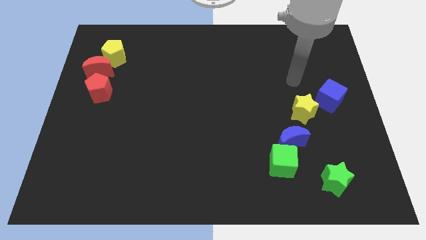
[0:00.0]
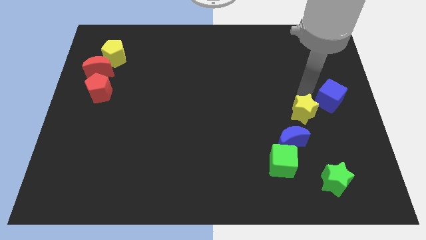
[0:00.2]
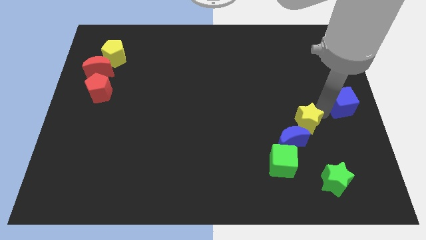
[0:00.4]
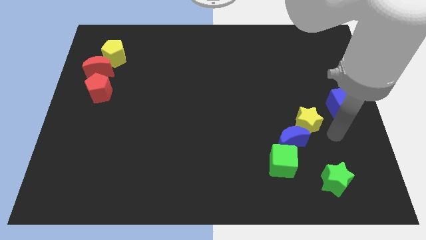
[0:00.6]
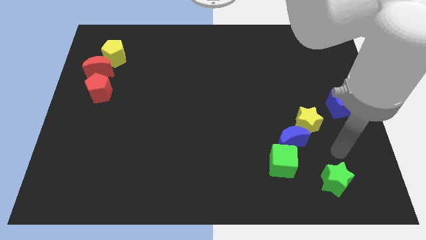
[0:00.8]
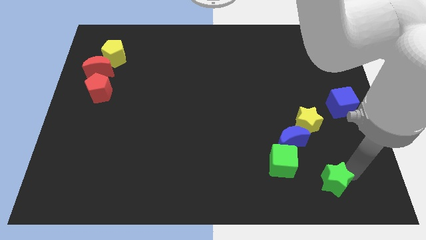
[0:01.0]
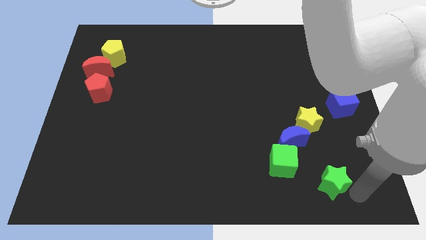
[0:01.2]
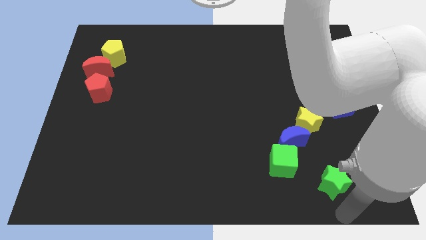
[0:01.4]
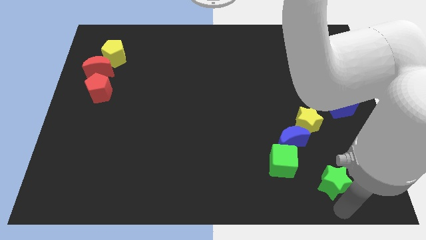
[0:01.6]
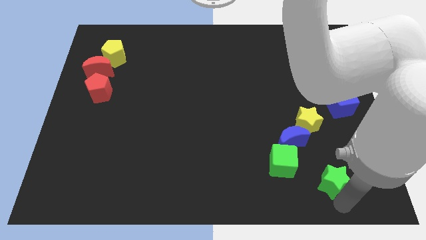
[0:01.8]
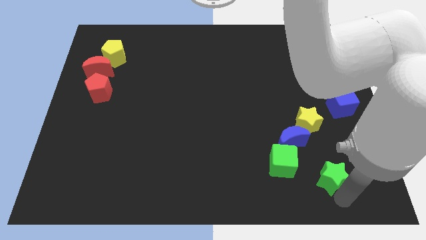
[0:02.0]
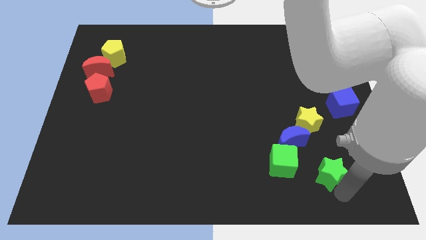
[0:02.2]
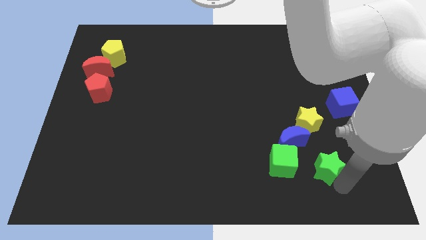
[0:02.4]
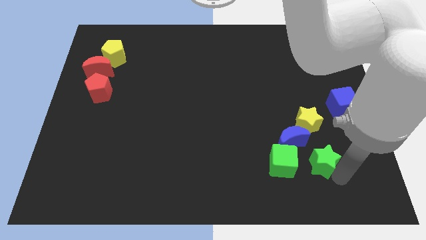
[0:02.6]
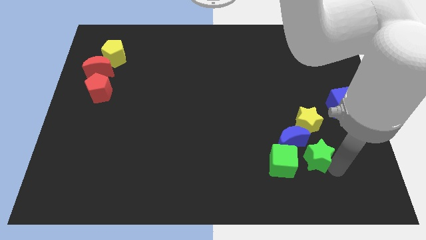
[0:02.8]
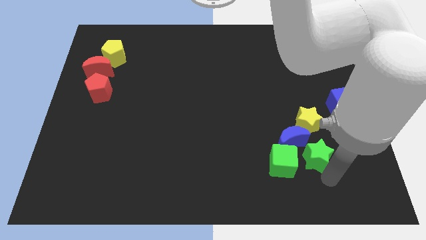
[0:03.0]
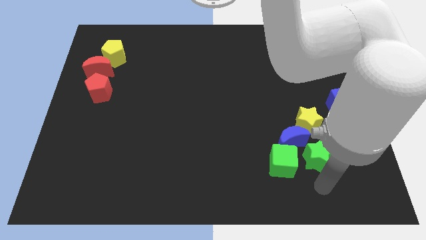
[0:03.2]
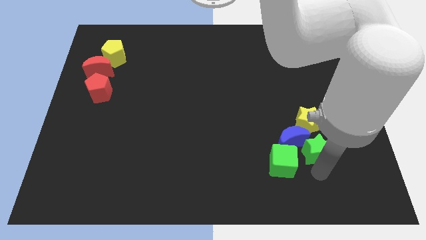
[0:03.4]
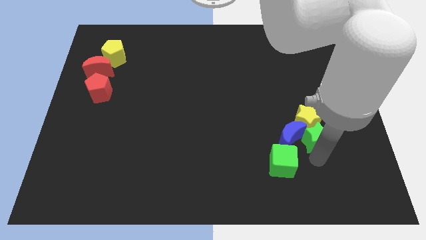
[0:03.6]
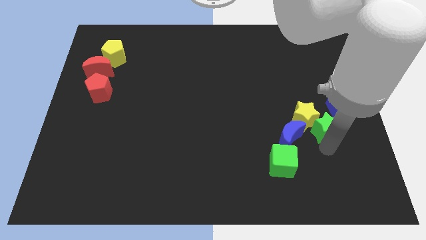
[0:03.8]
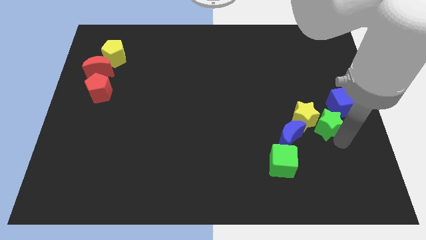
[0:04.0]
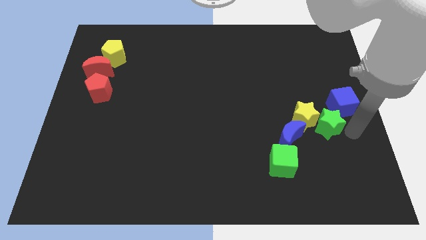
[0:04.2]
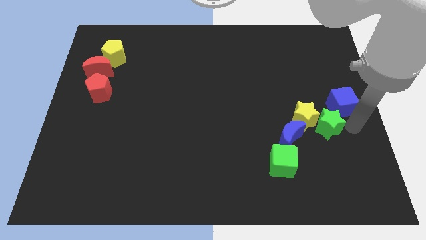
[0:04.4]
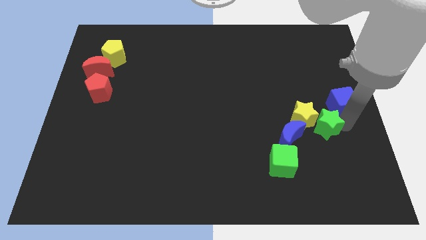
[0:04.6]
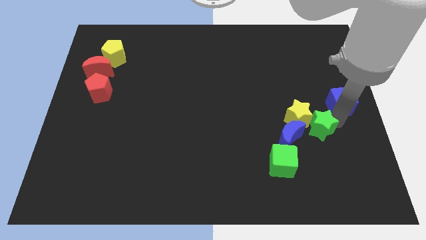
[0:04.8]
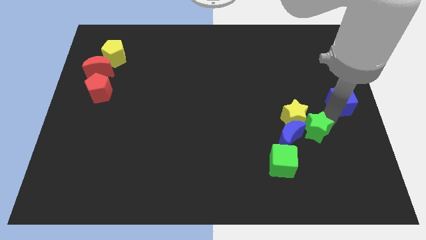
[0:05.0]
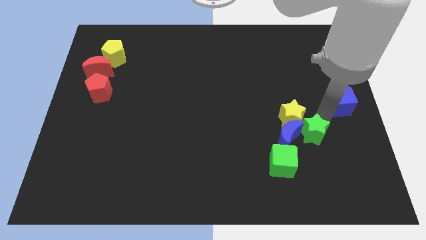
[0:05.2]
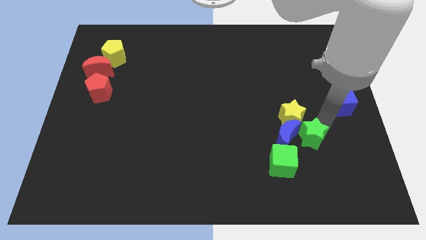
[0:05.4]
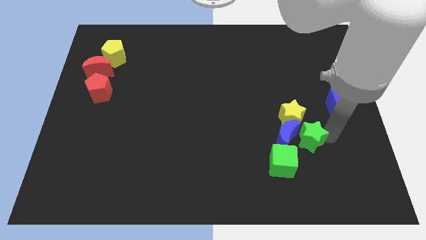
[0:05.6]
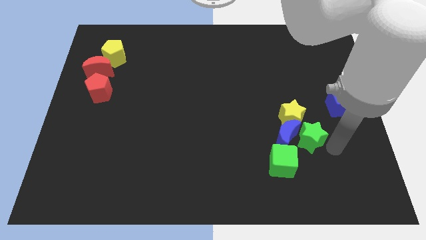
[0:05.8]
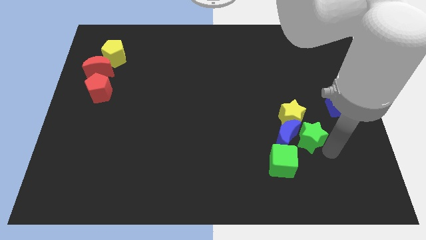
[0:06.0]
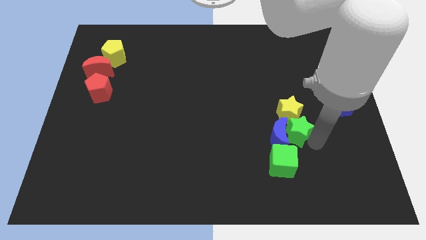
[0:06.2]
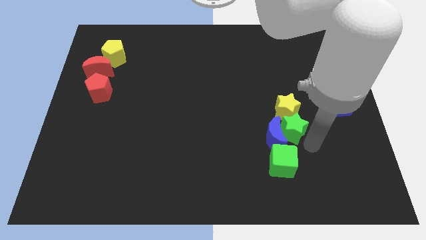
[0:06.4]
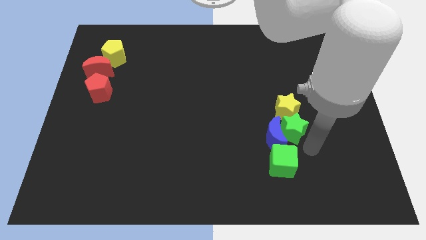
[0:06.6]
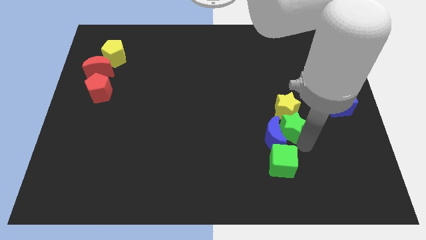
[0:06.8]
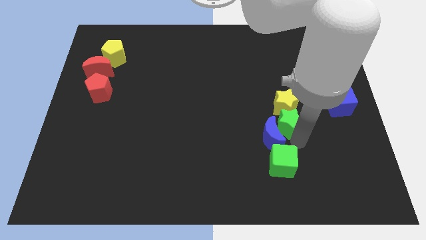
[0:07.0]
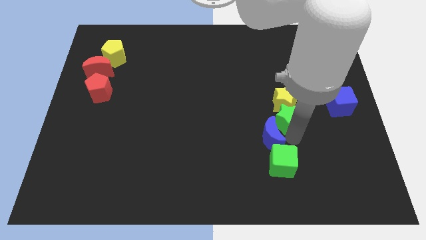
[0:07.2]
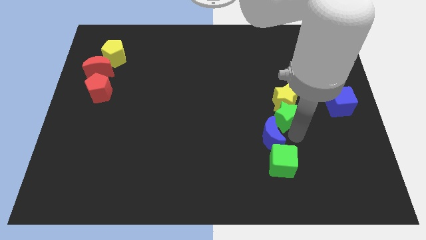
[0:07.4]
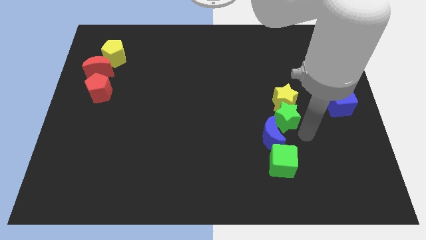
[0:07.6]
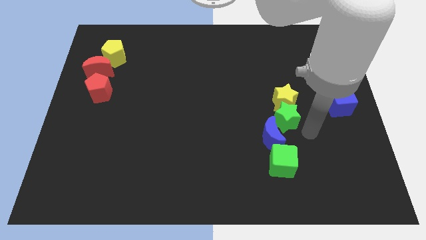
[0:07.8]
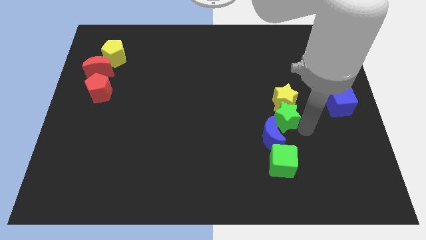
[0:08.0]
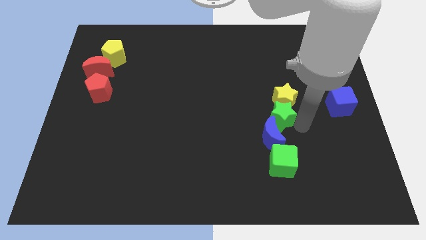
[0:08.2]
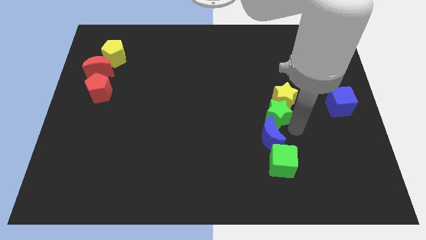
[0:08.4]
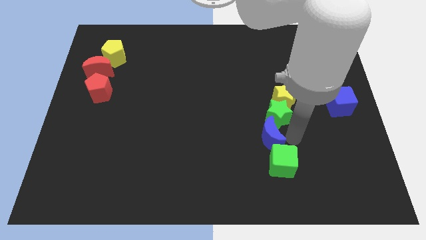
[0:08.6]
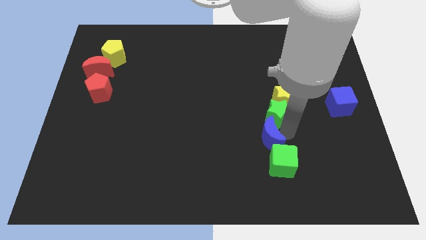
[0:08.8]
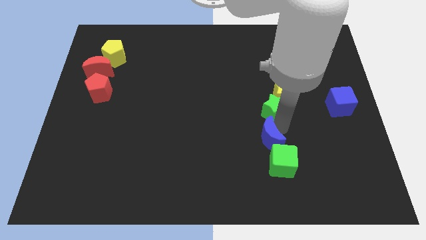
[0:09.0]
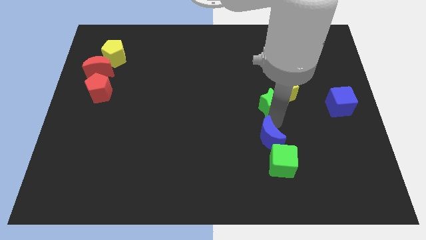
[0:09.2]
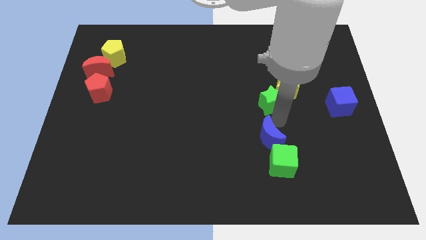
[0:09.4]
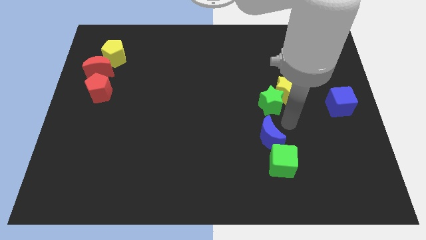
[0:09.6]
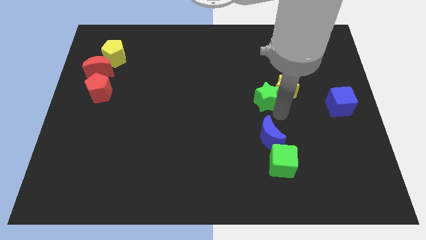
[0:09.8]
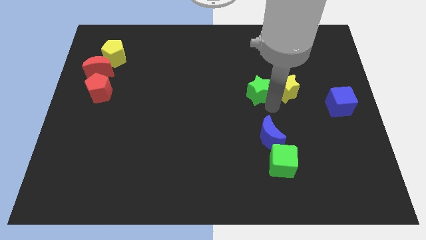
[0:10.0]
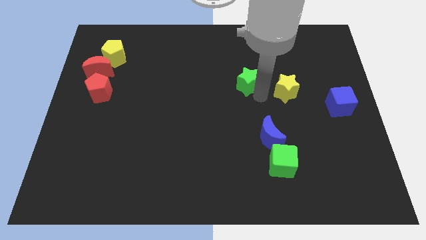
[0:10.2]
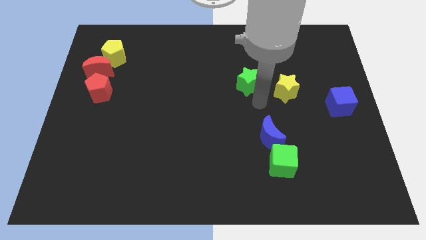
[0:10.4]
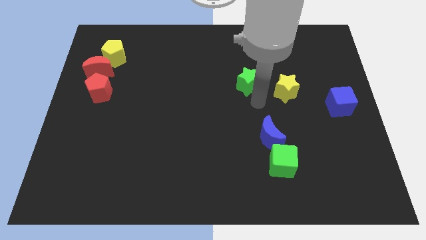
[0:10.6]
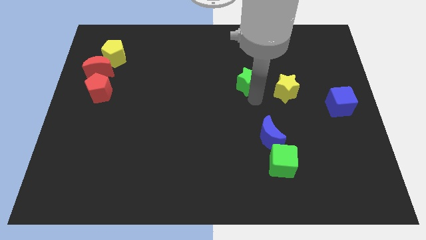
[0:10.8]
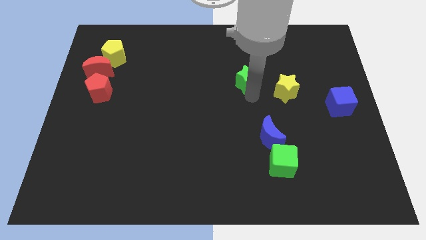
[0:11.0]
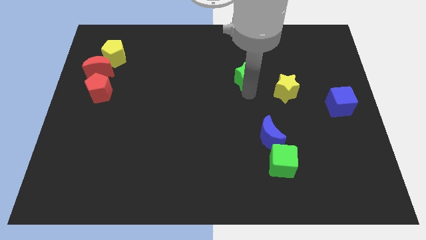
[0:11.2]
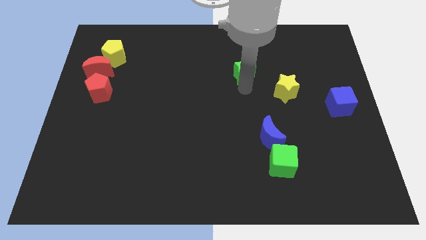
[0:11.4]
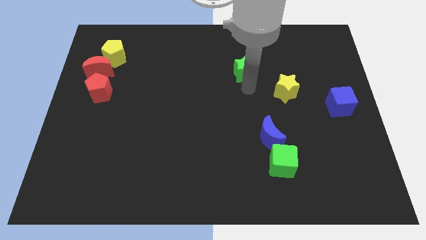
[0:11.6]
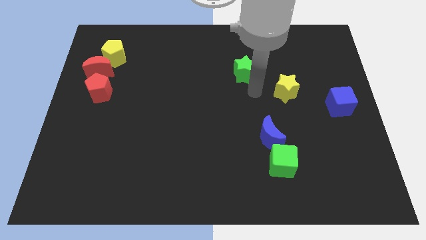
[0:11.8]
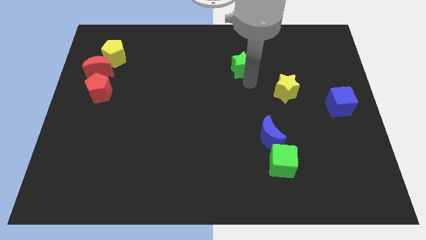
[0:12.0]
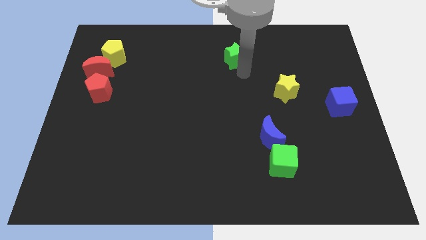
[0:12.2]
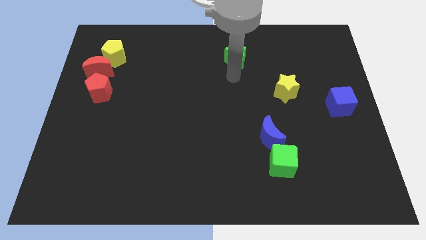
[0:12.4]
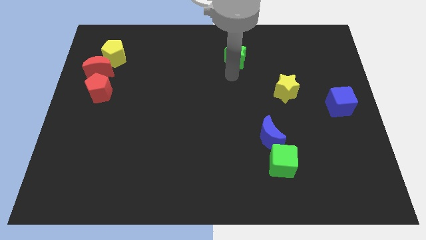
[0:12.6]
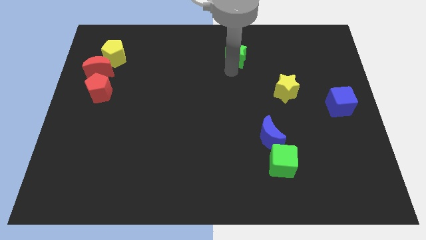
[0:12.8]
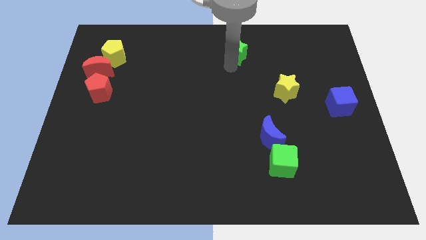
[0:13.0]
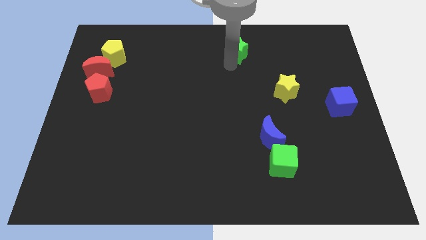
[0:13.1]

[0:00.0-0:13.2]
move the green star to the top
